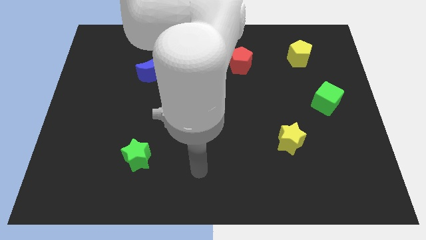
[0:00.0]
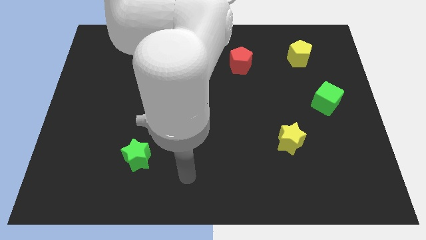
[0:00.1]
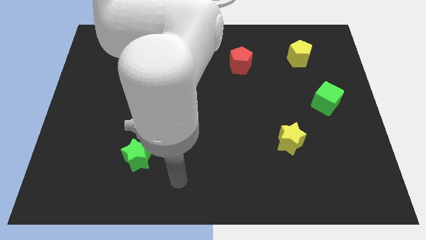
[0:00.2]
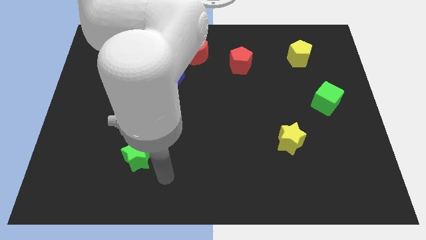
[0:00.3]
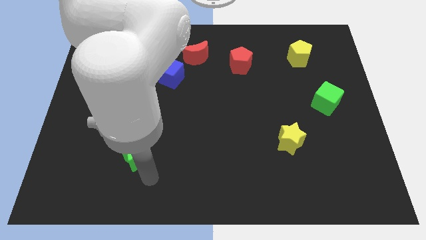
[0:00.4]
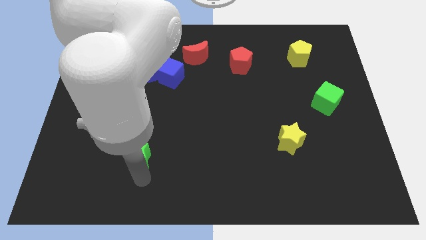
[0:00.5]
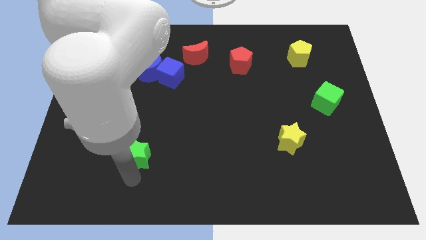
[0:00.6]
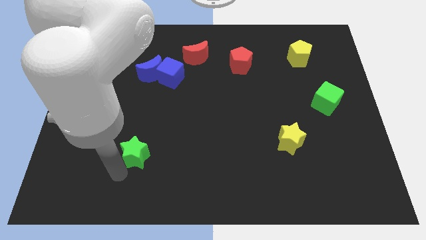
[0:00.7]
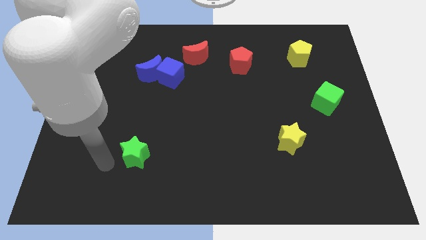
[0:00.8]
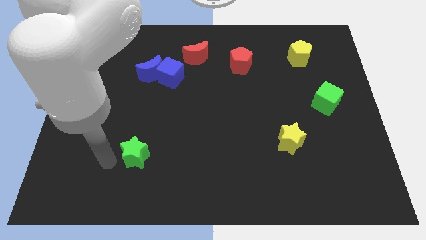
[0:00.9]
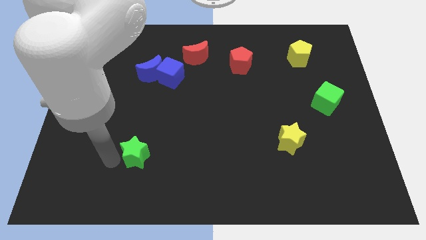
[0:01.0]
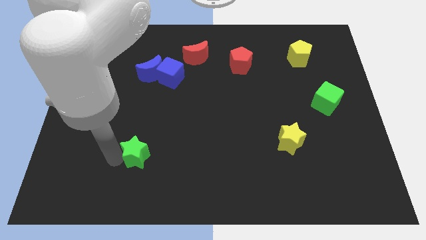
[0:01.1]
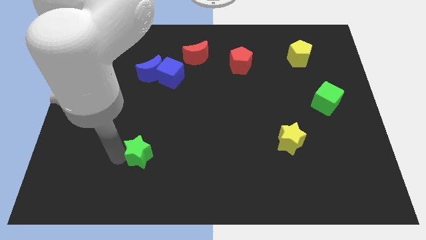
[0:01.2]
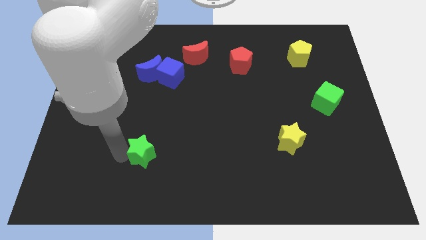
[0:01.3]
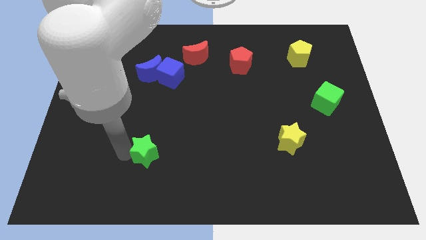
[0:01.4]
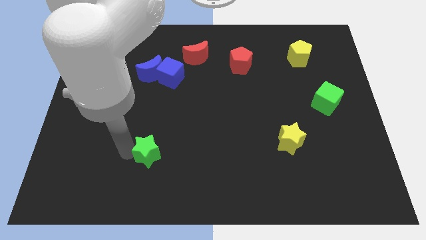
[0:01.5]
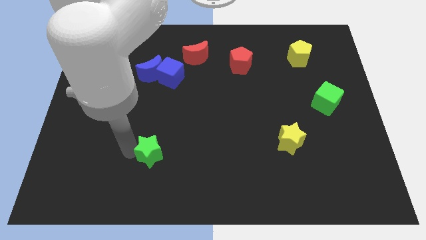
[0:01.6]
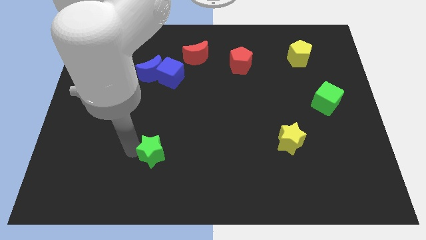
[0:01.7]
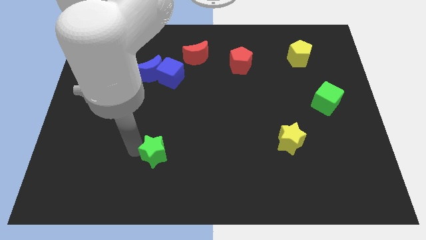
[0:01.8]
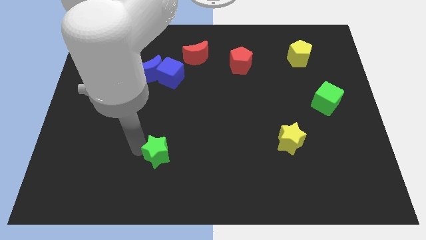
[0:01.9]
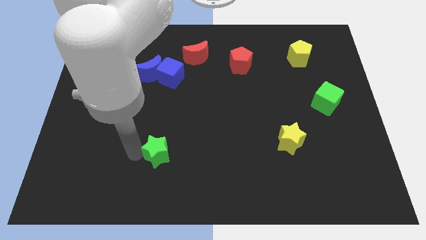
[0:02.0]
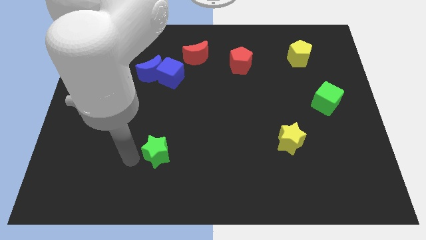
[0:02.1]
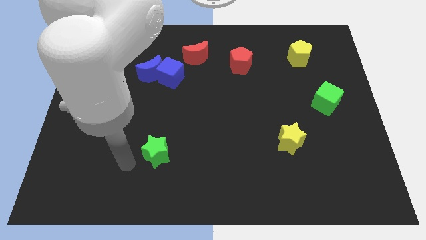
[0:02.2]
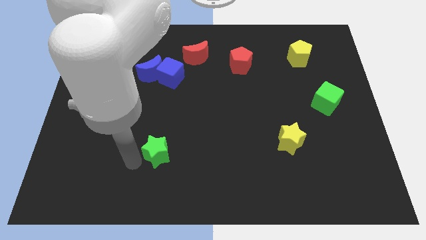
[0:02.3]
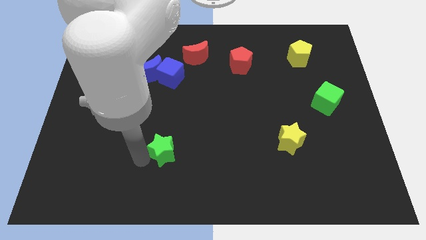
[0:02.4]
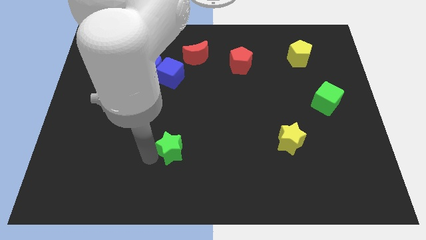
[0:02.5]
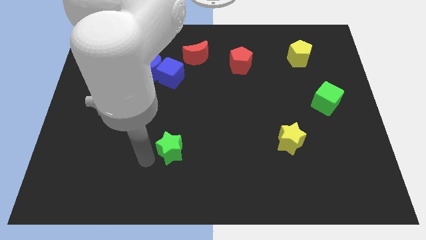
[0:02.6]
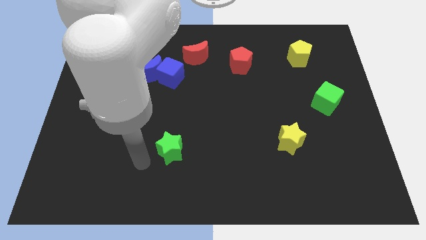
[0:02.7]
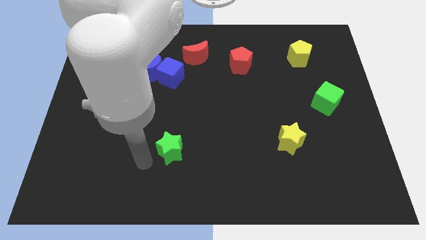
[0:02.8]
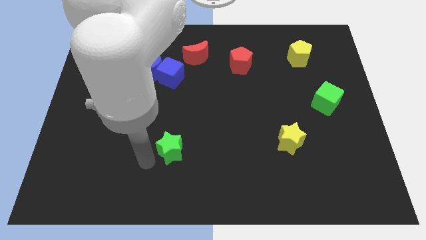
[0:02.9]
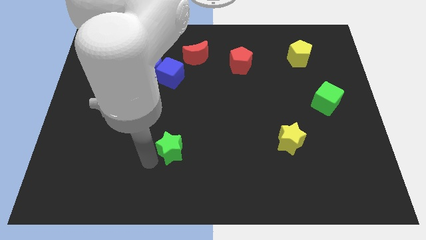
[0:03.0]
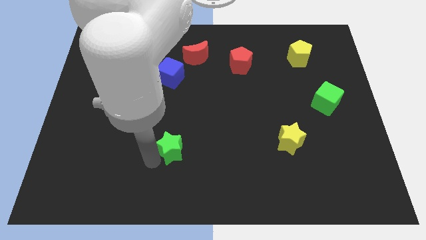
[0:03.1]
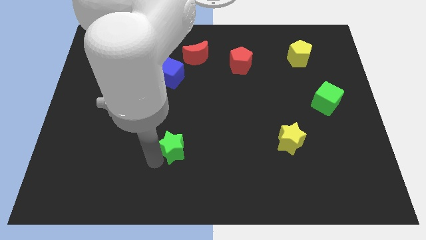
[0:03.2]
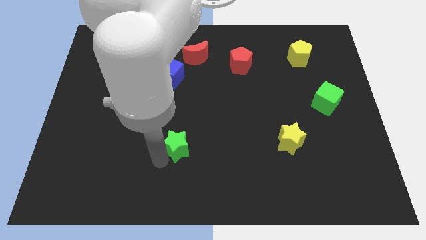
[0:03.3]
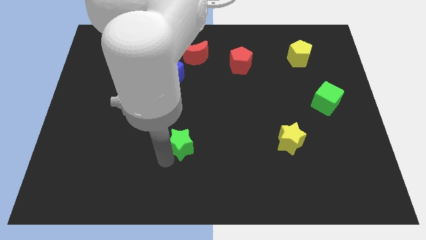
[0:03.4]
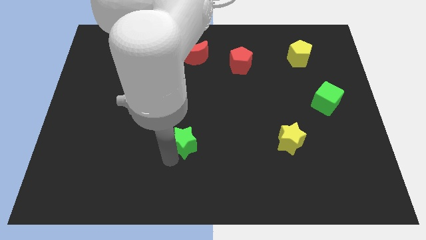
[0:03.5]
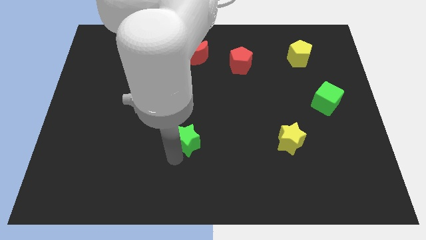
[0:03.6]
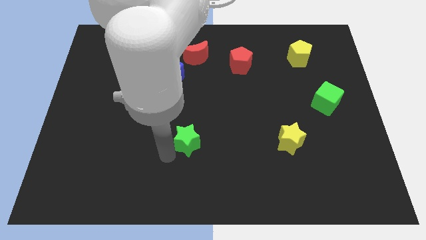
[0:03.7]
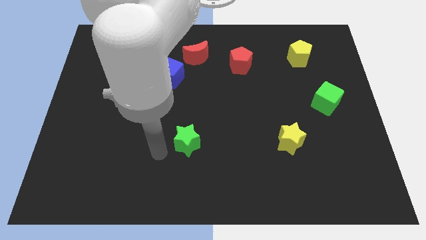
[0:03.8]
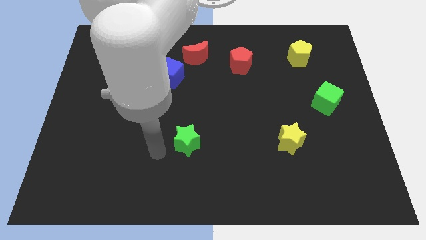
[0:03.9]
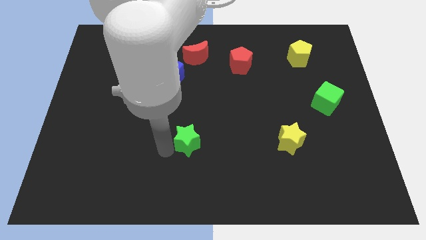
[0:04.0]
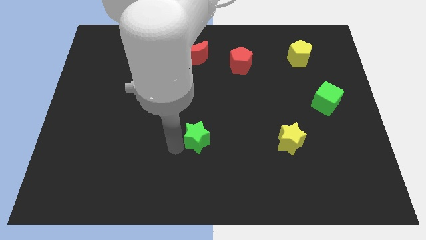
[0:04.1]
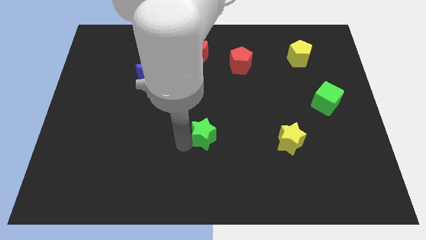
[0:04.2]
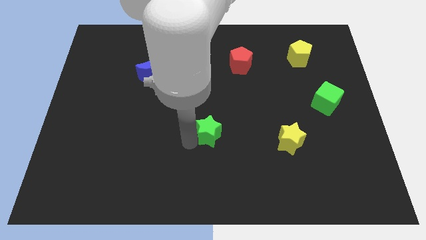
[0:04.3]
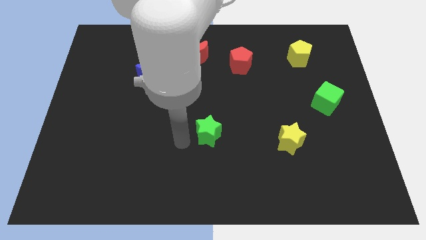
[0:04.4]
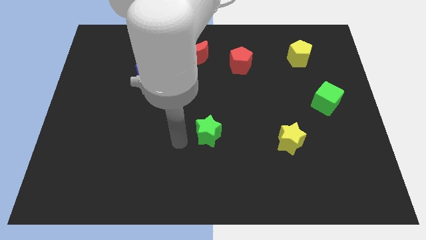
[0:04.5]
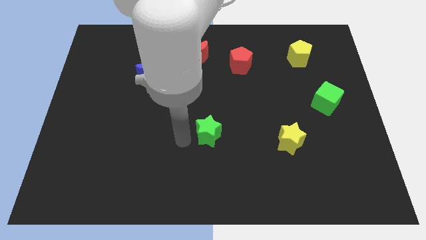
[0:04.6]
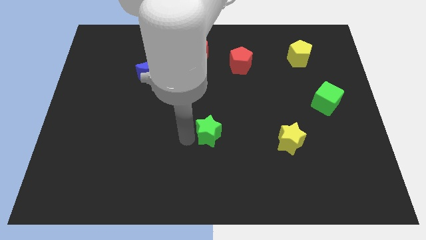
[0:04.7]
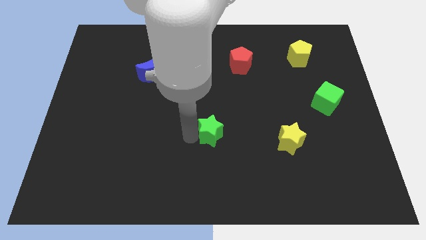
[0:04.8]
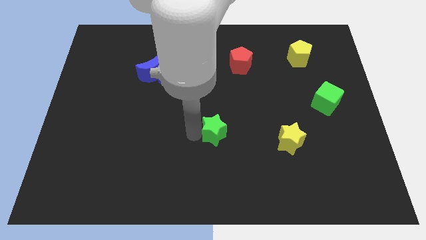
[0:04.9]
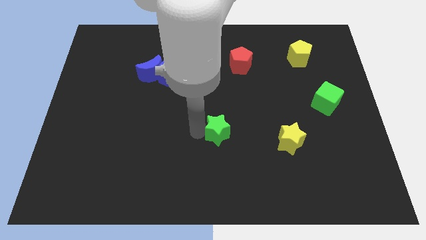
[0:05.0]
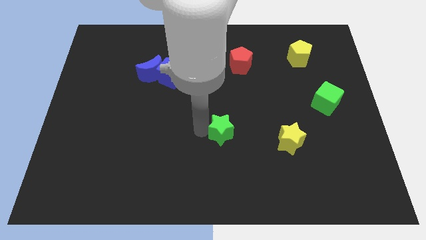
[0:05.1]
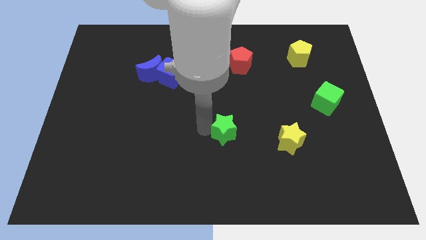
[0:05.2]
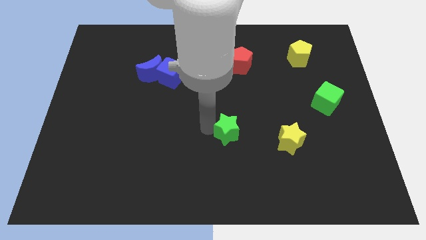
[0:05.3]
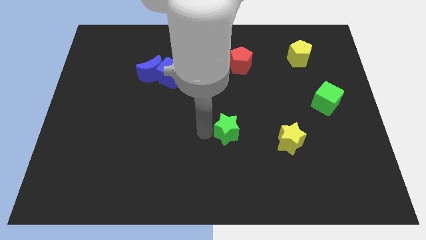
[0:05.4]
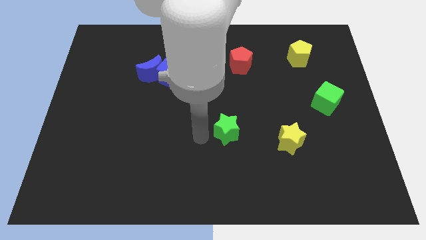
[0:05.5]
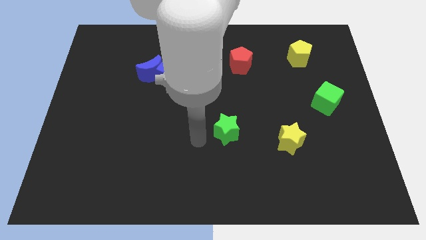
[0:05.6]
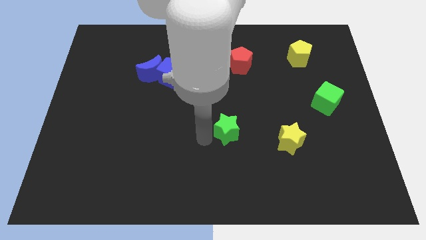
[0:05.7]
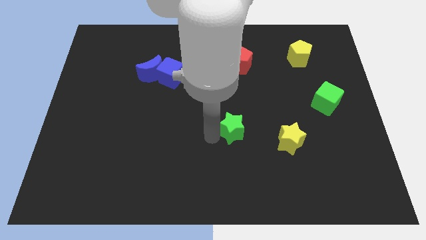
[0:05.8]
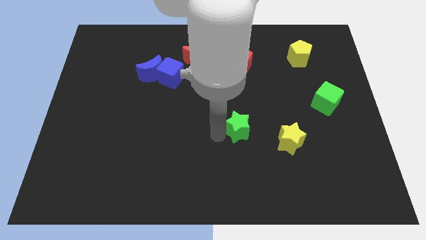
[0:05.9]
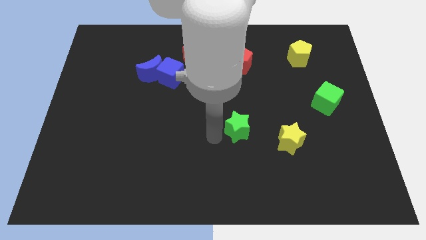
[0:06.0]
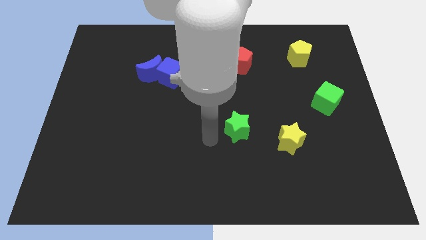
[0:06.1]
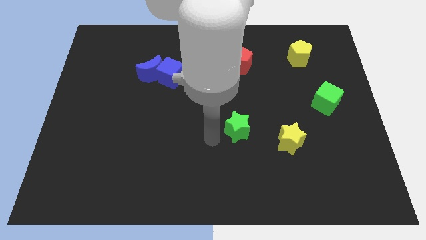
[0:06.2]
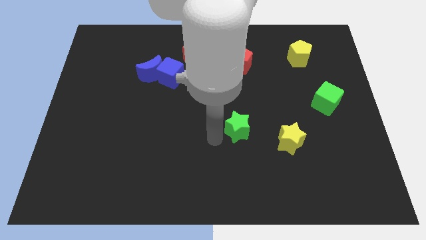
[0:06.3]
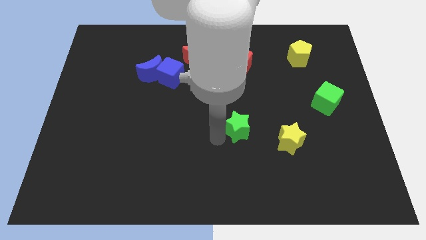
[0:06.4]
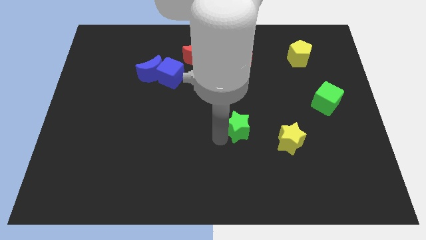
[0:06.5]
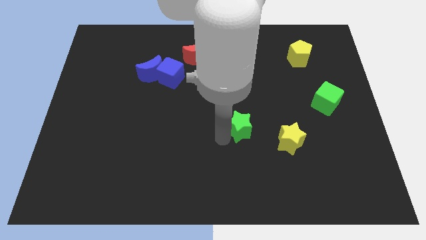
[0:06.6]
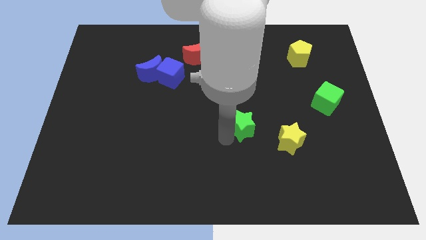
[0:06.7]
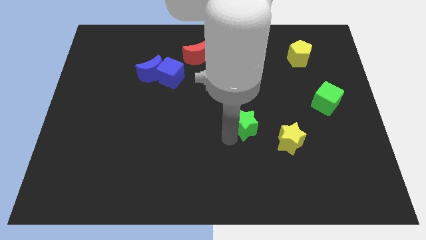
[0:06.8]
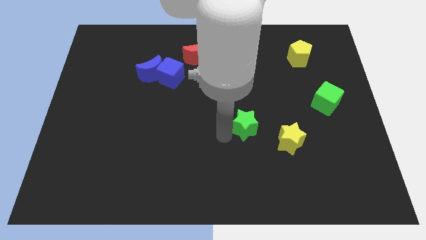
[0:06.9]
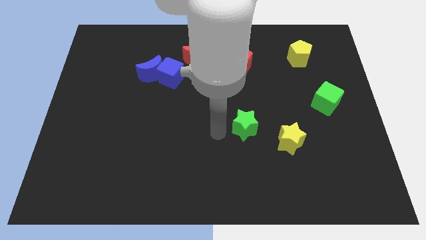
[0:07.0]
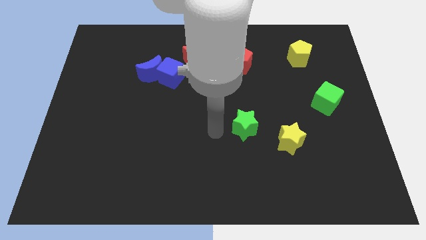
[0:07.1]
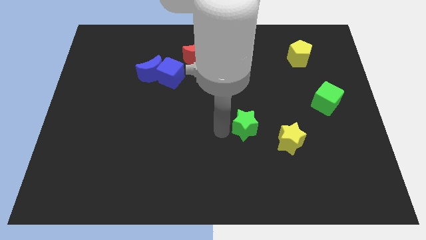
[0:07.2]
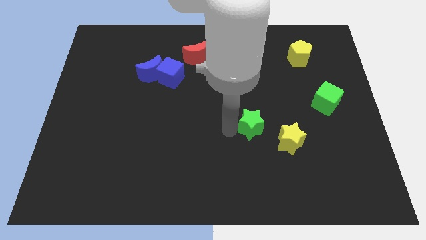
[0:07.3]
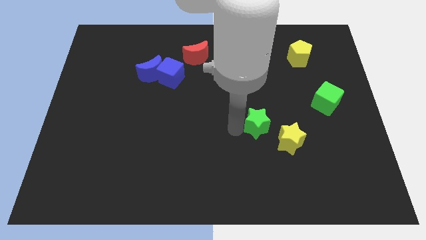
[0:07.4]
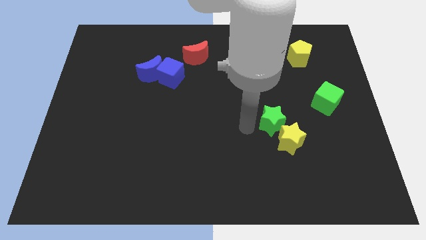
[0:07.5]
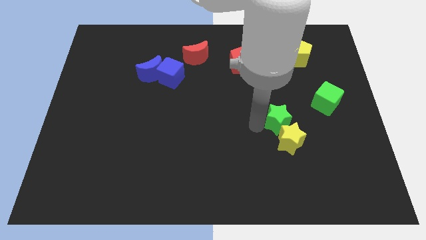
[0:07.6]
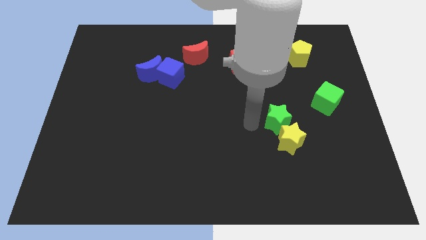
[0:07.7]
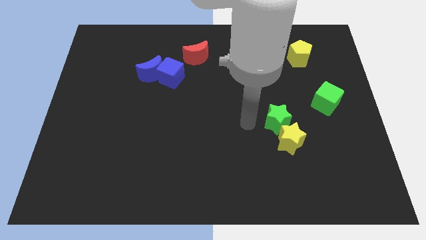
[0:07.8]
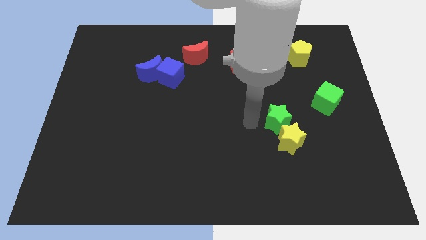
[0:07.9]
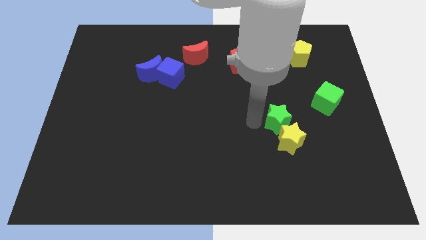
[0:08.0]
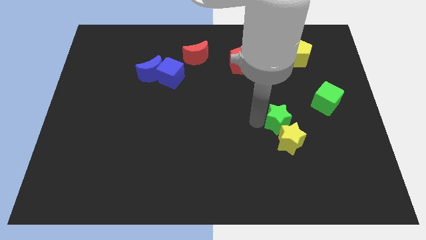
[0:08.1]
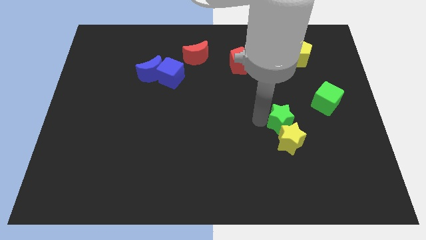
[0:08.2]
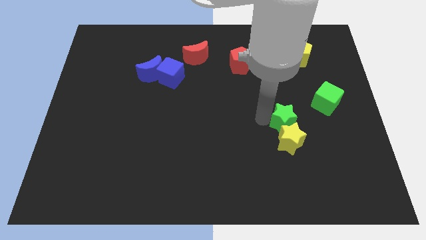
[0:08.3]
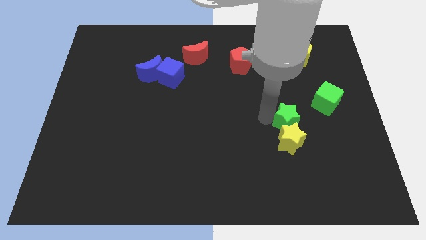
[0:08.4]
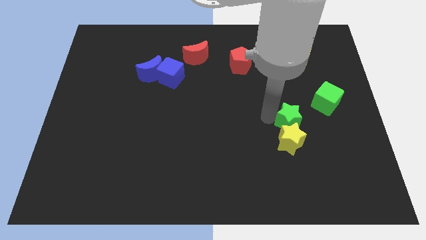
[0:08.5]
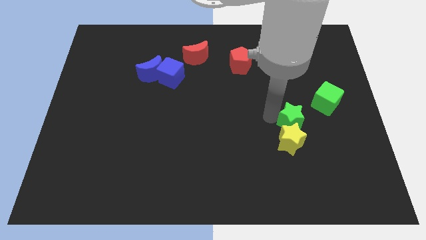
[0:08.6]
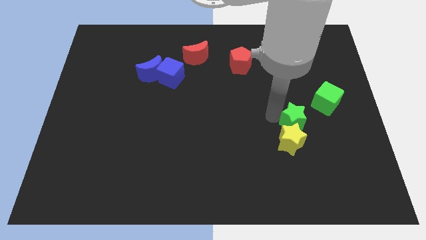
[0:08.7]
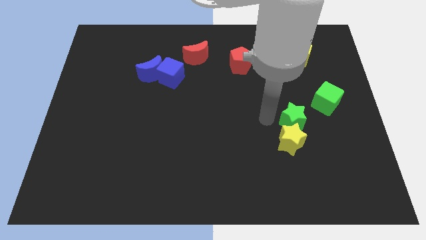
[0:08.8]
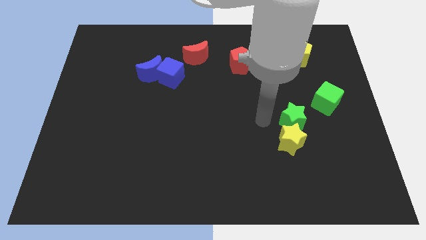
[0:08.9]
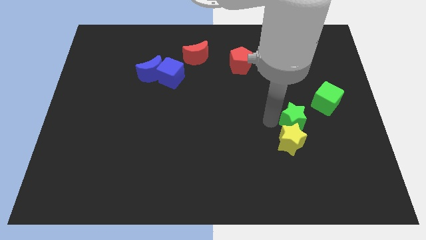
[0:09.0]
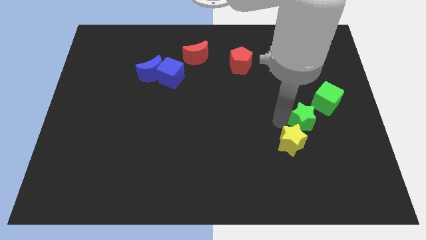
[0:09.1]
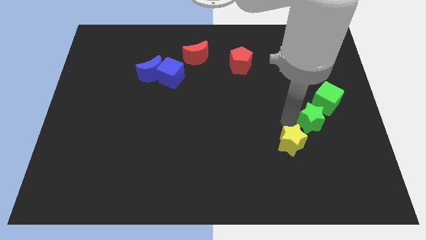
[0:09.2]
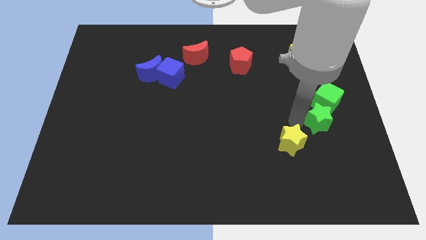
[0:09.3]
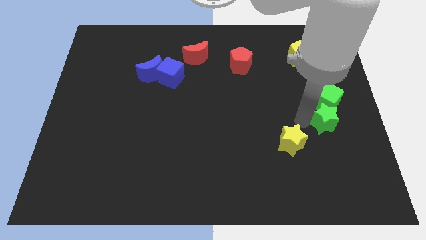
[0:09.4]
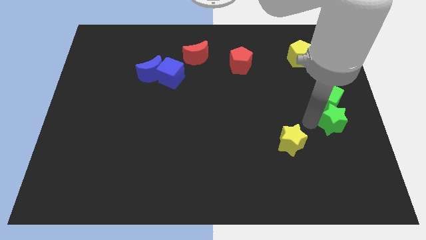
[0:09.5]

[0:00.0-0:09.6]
put the green star to the right side of the board
